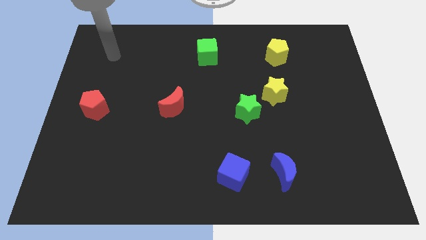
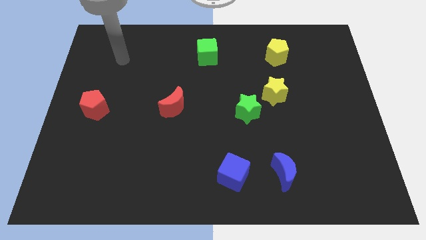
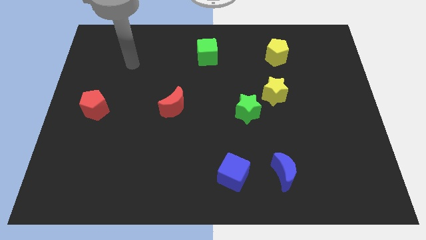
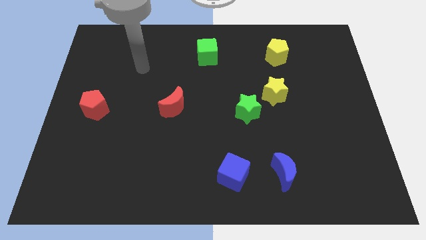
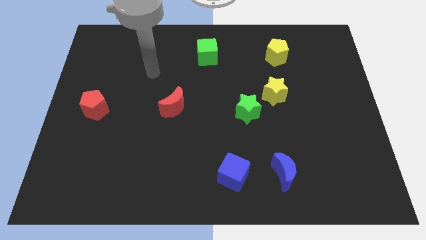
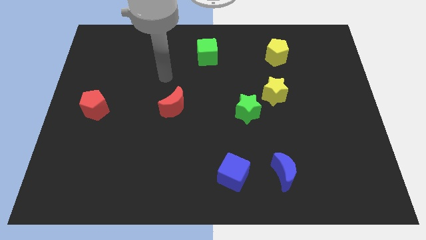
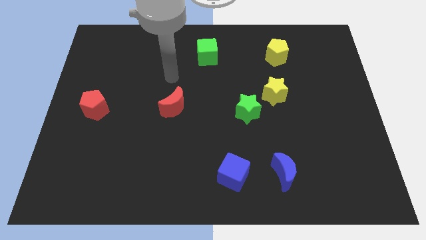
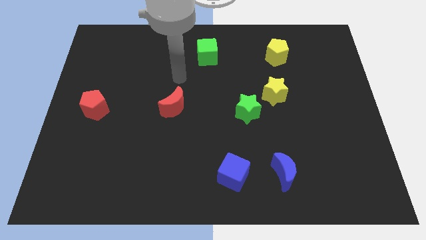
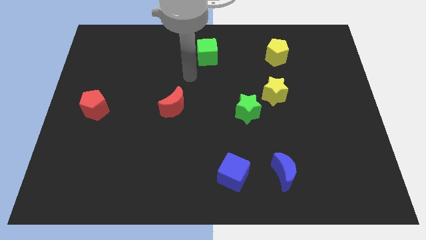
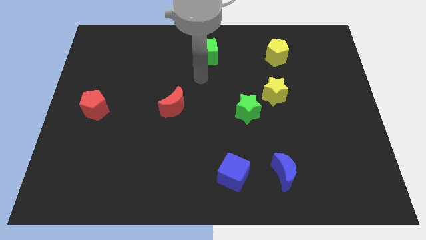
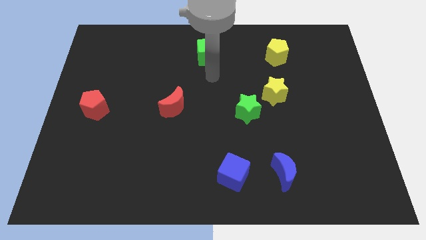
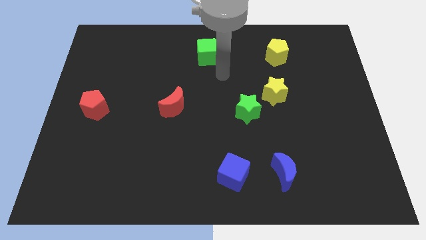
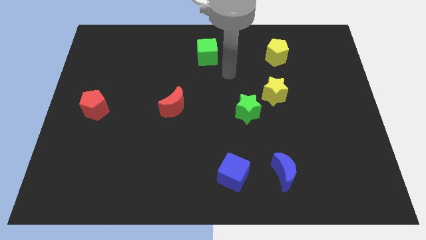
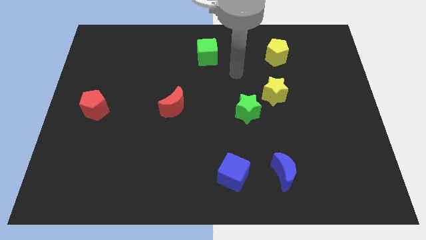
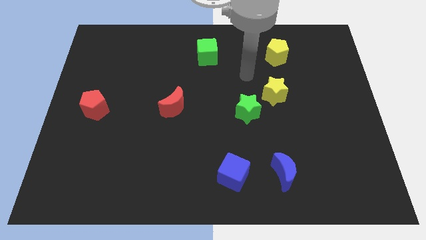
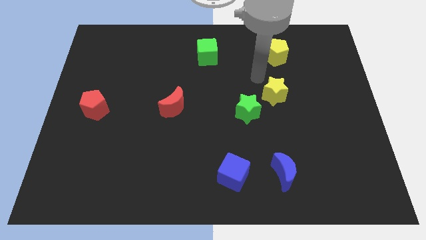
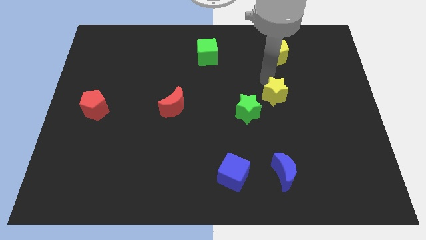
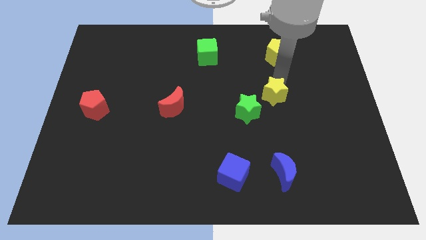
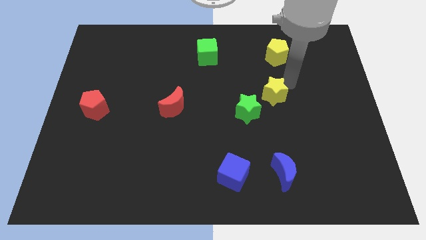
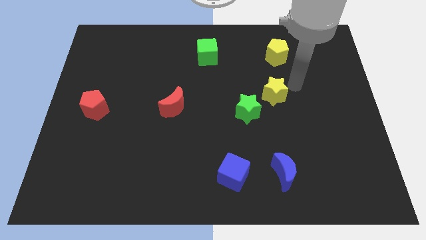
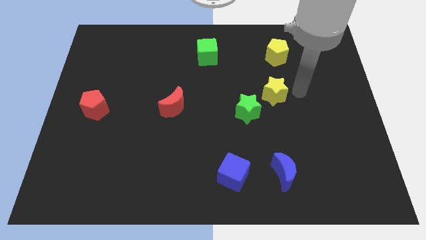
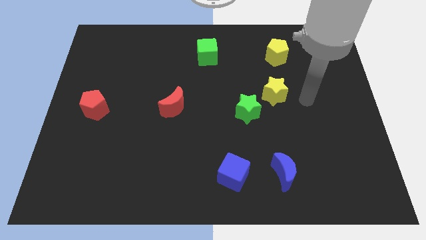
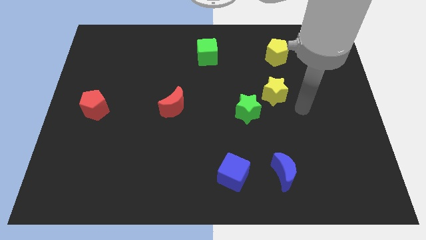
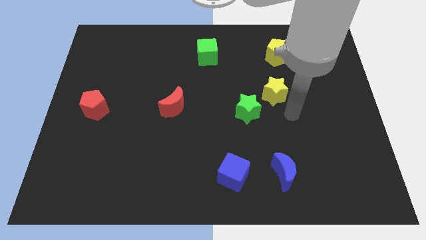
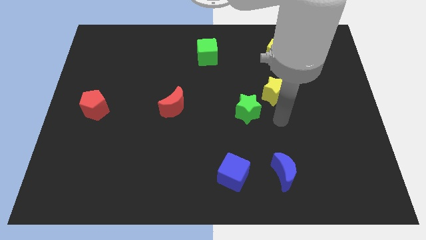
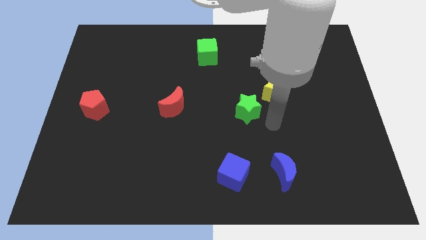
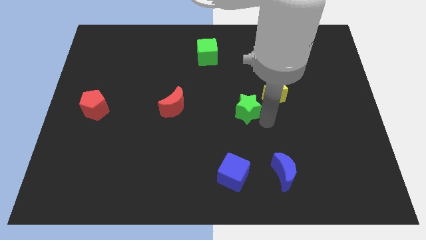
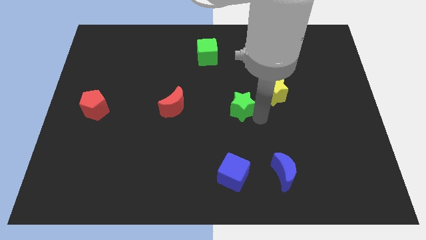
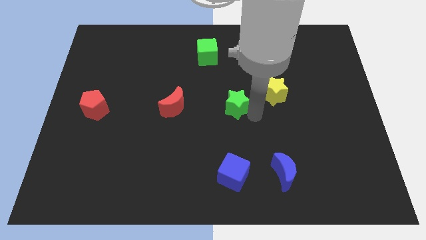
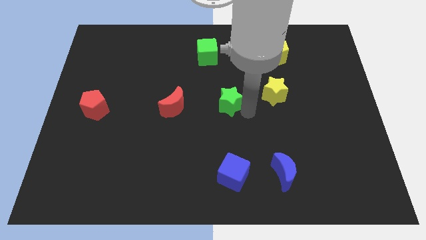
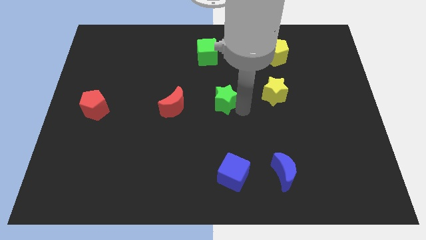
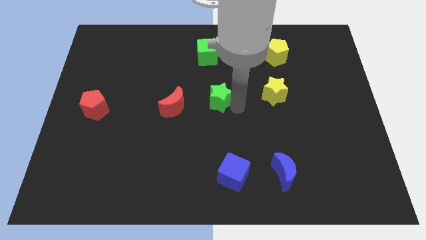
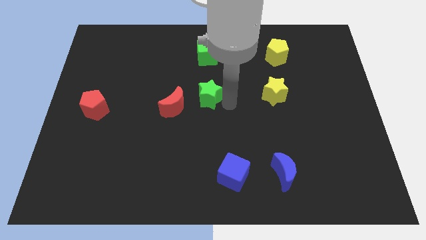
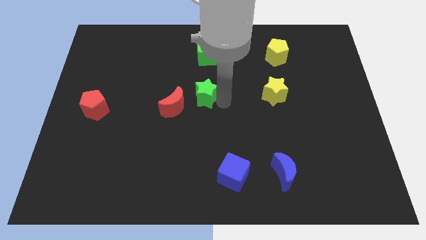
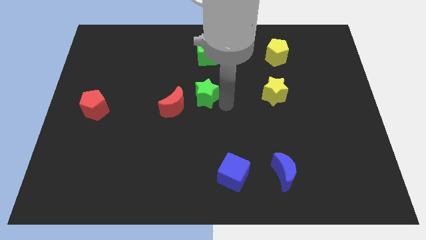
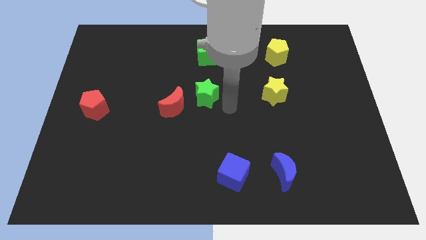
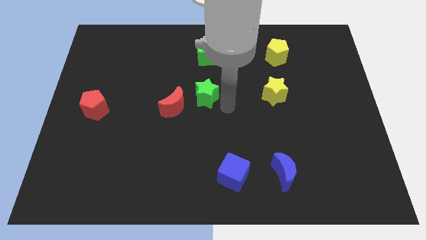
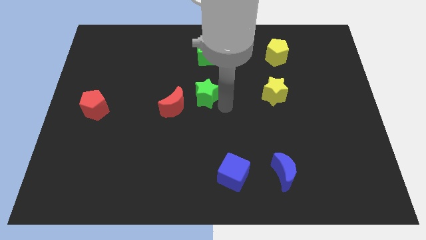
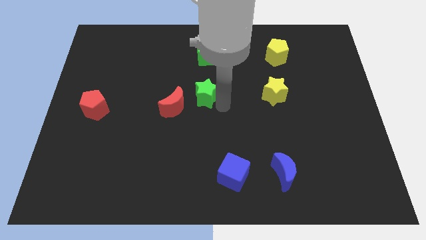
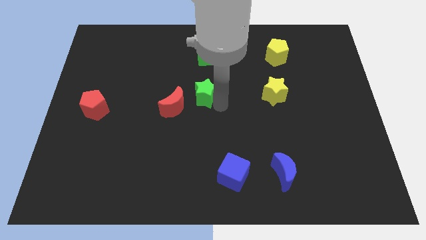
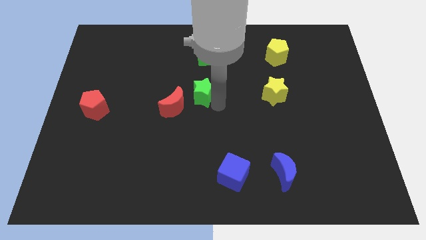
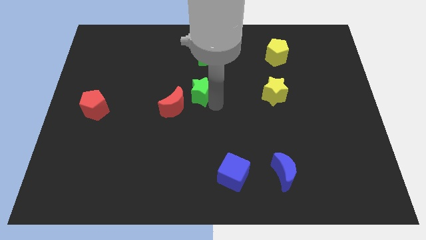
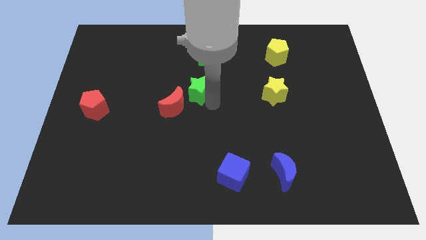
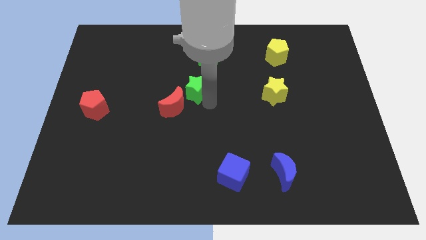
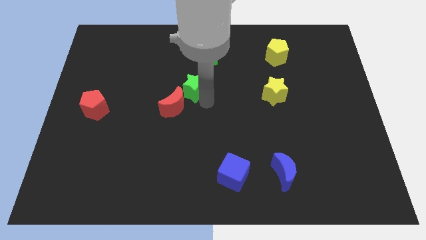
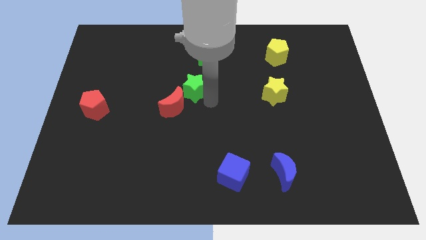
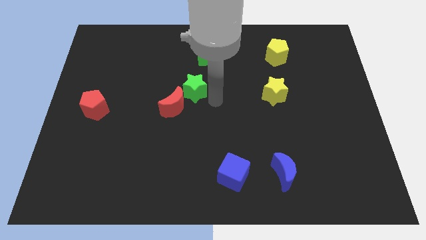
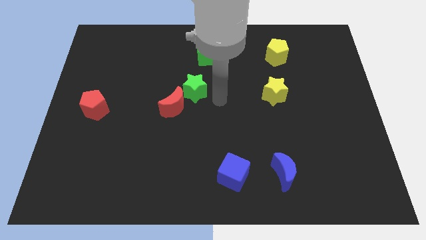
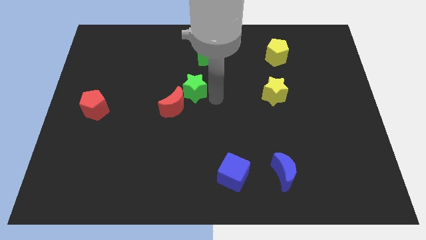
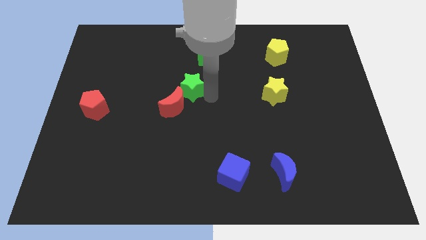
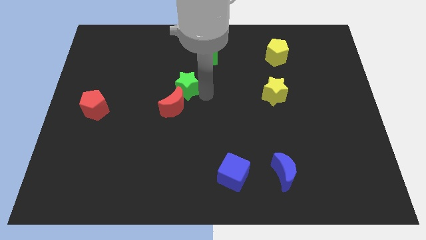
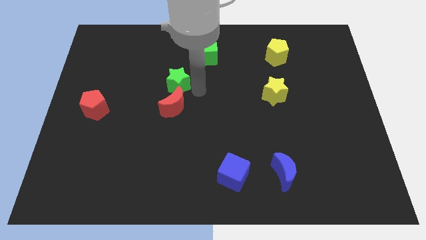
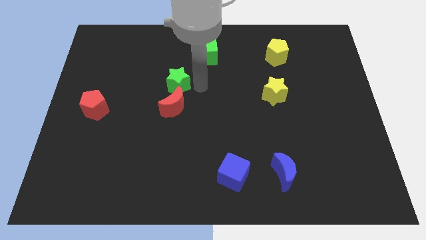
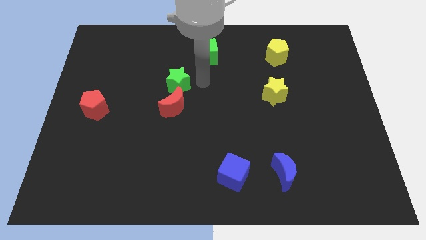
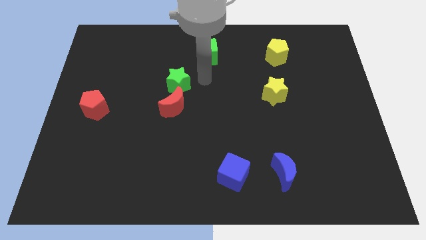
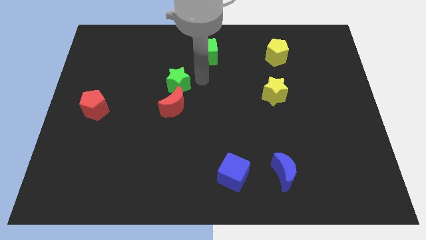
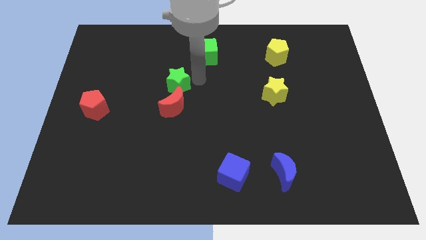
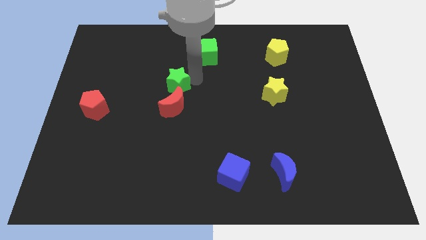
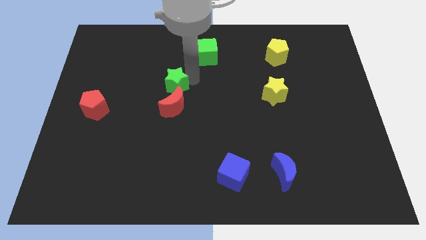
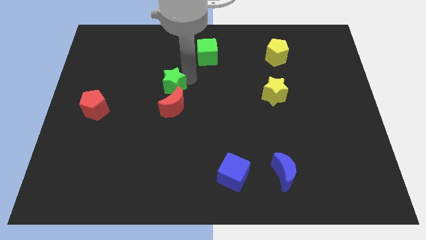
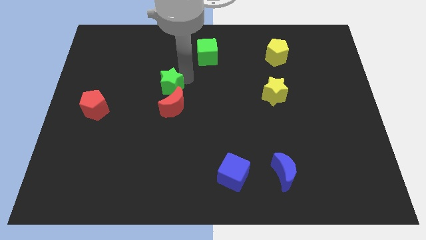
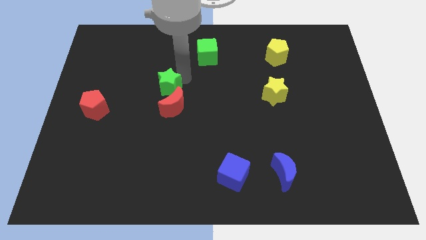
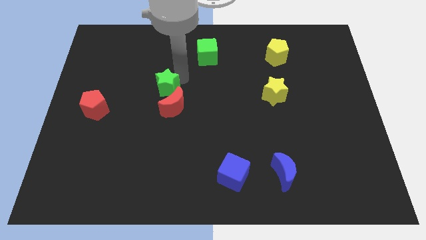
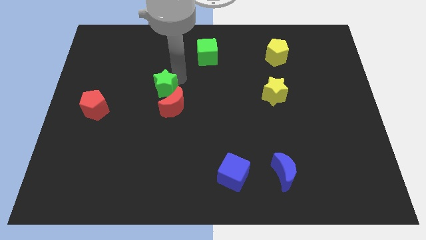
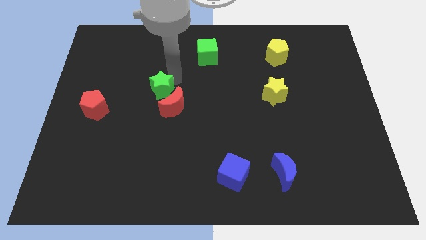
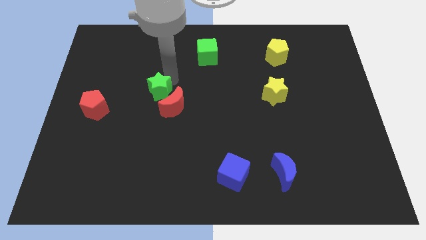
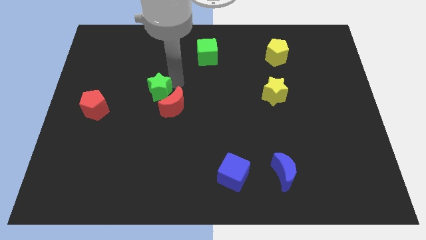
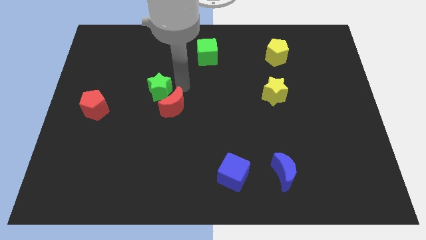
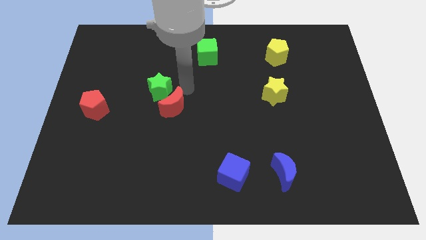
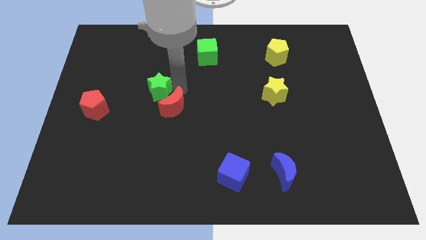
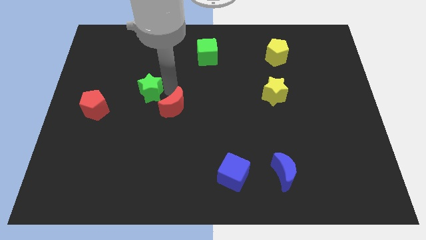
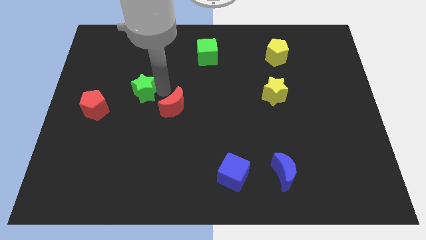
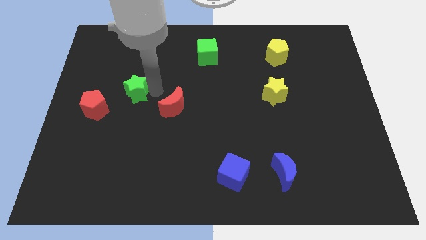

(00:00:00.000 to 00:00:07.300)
put the green star to the top right of the red pentagon

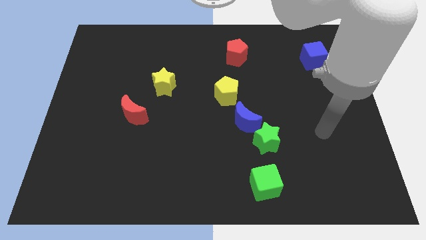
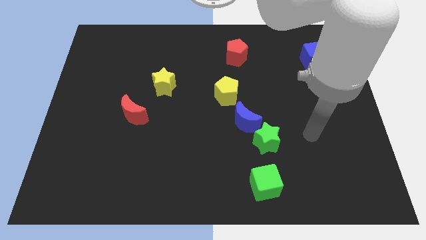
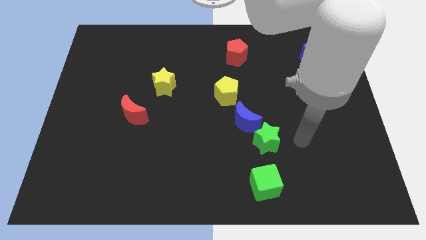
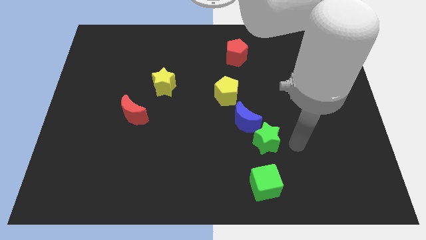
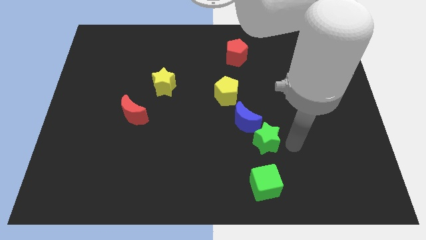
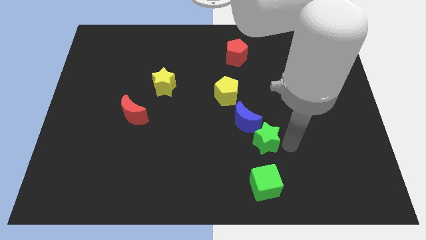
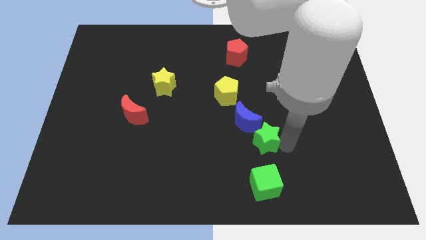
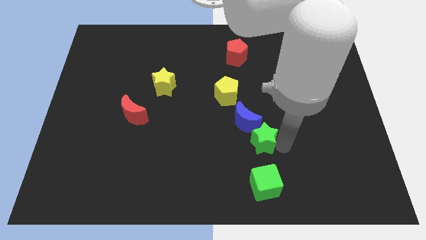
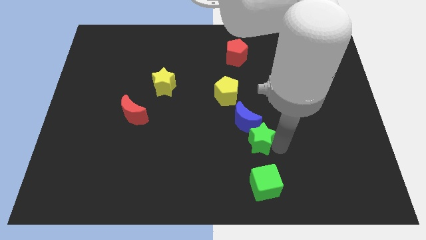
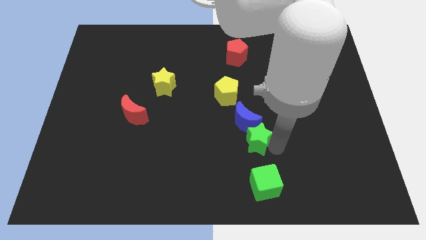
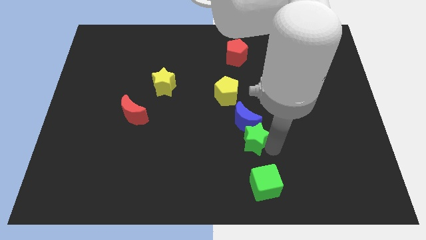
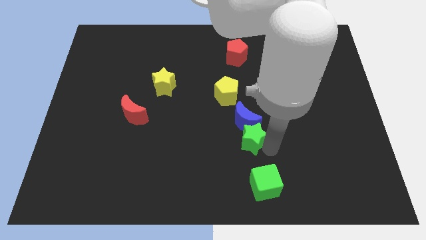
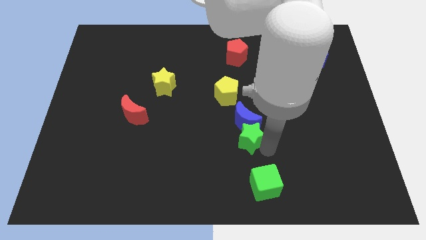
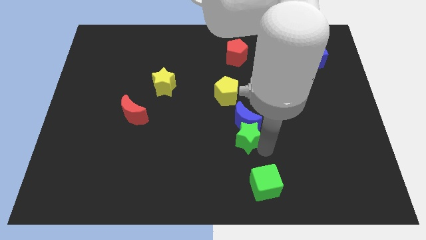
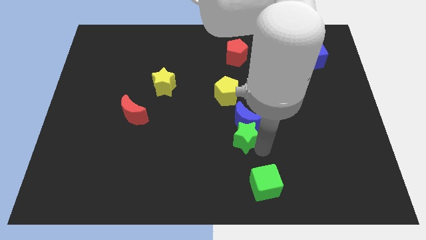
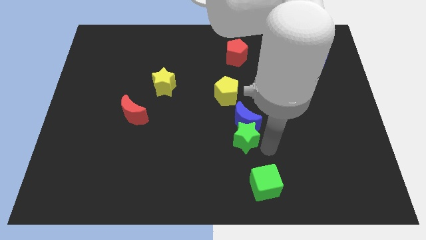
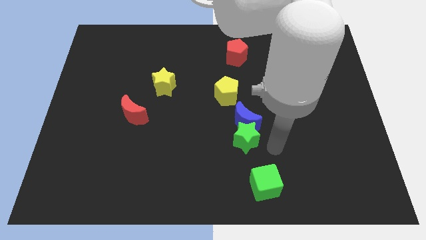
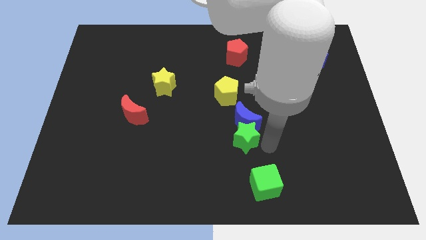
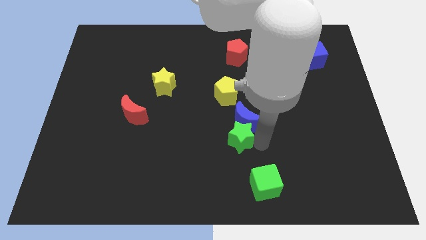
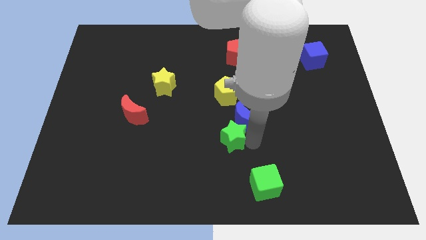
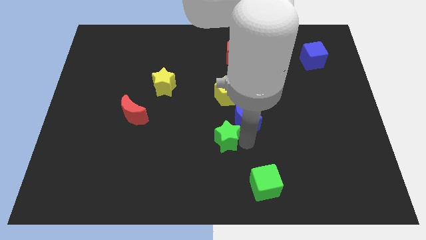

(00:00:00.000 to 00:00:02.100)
put the green star to the left of the blue moon
